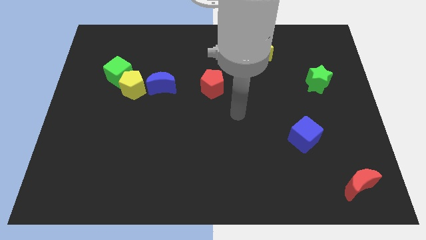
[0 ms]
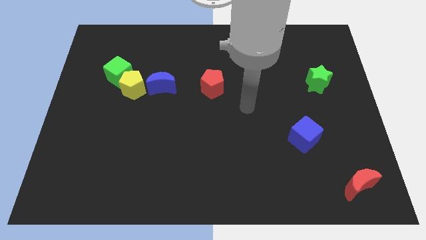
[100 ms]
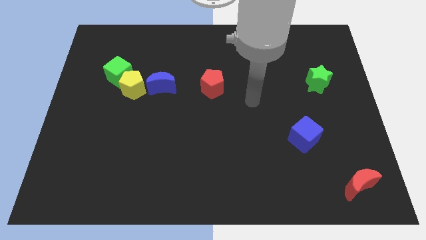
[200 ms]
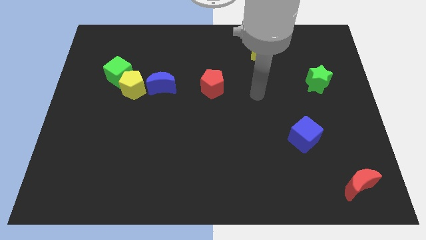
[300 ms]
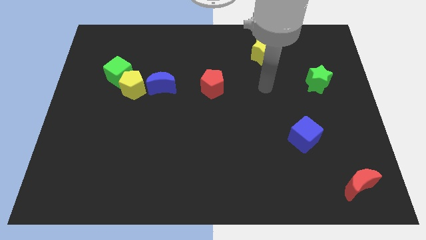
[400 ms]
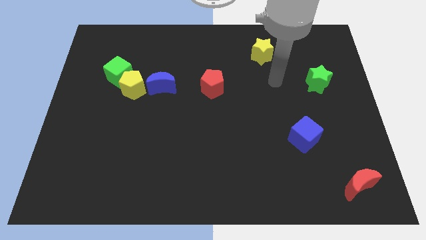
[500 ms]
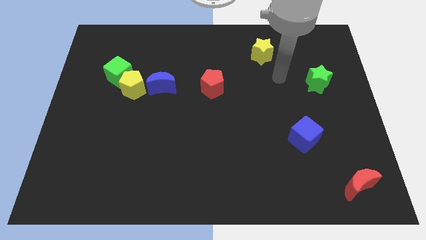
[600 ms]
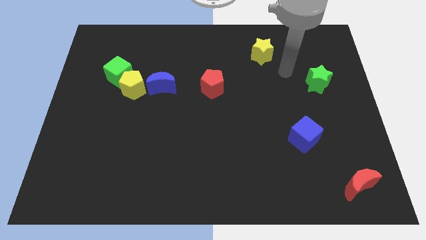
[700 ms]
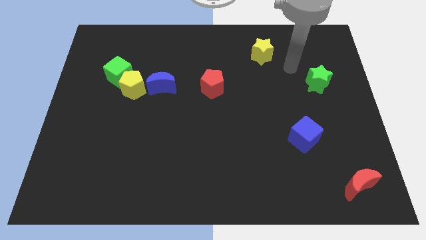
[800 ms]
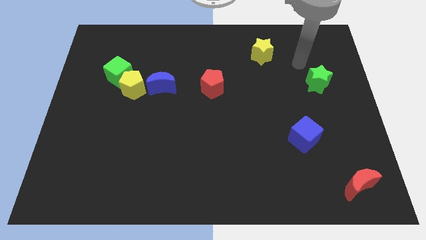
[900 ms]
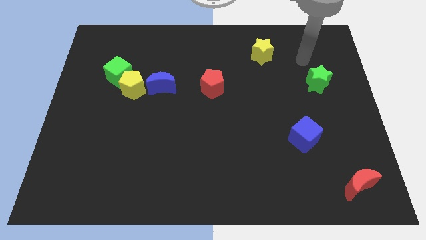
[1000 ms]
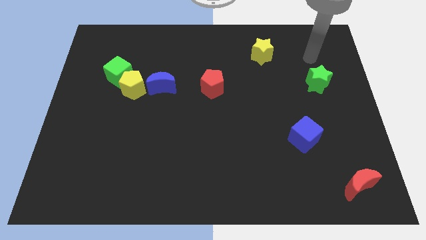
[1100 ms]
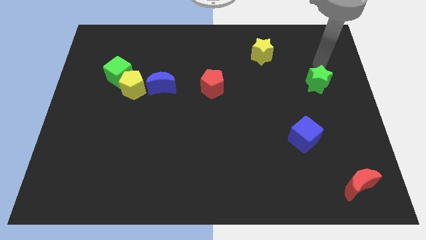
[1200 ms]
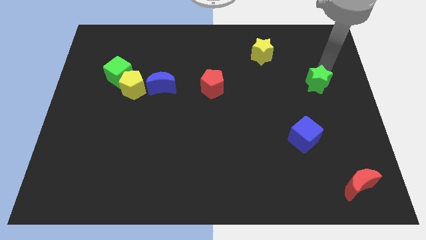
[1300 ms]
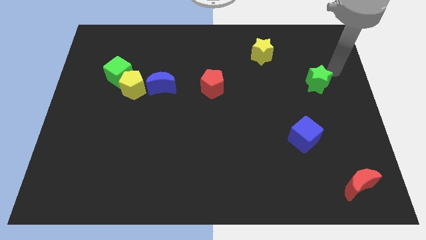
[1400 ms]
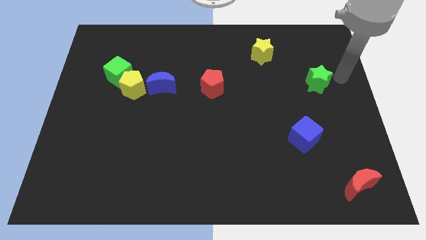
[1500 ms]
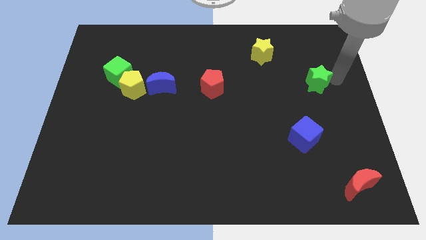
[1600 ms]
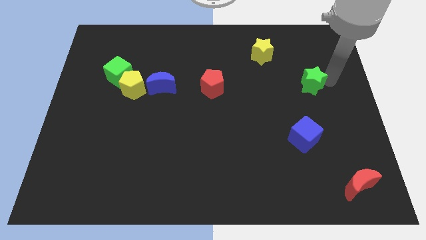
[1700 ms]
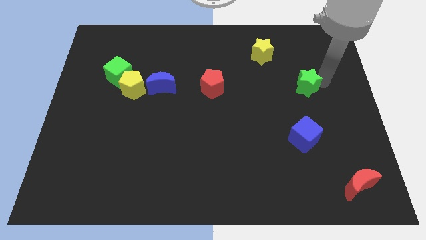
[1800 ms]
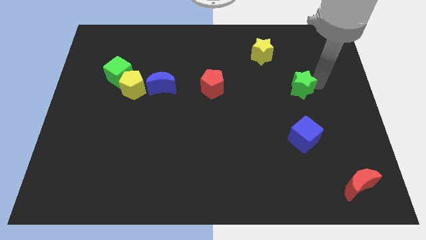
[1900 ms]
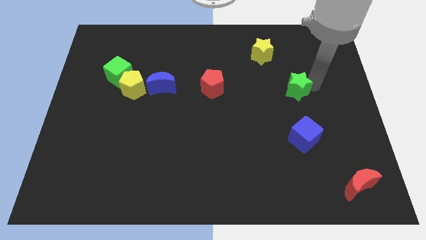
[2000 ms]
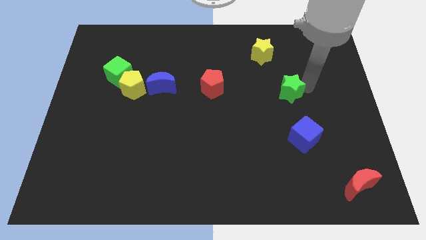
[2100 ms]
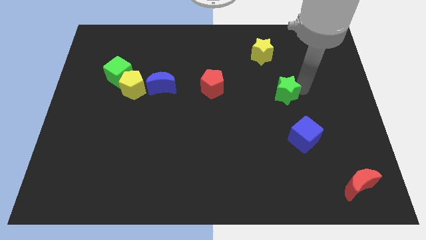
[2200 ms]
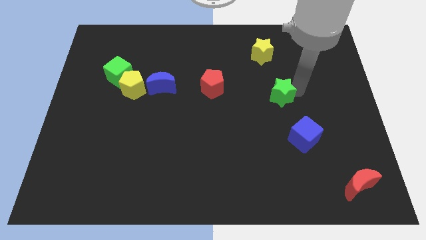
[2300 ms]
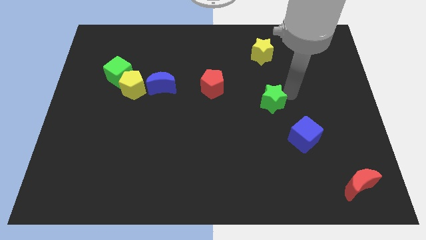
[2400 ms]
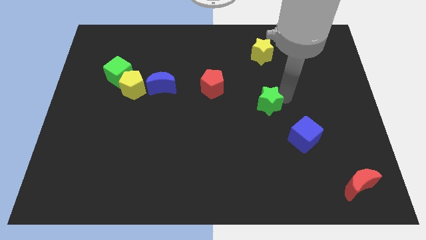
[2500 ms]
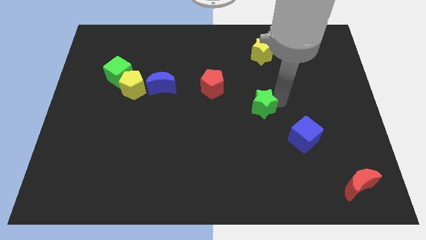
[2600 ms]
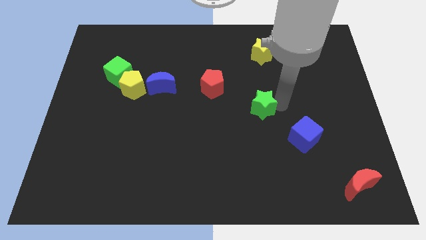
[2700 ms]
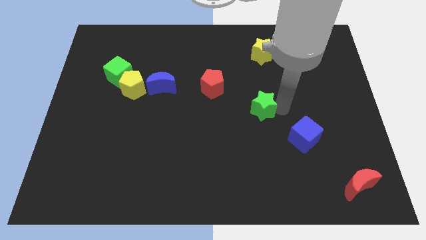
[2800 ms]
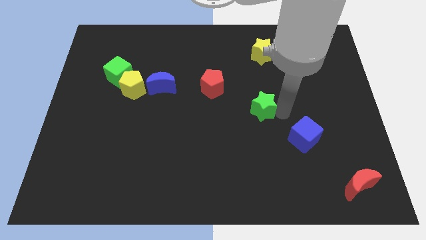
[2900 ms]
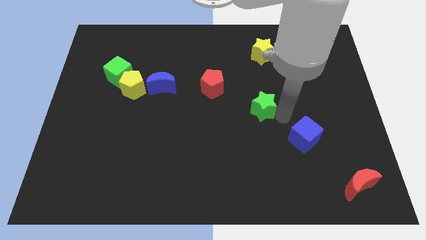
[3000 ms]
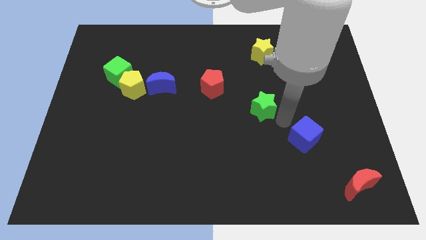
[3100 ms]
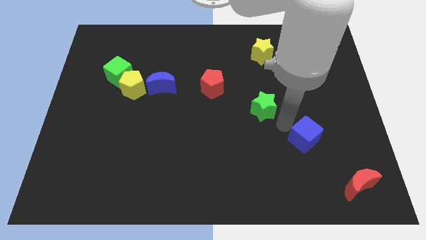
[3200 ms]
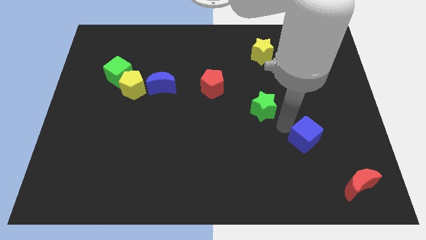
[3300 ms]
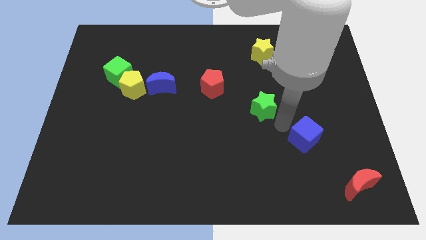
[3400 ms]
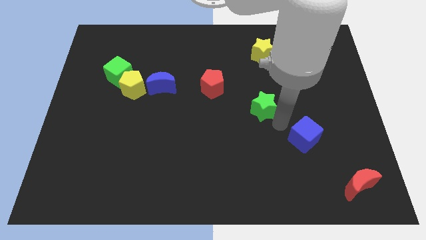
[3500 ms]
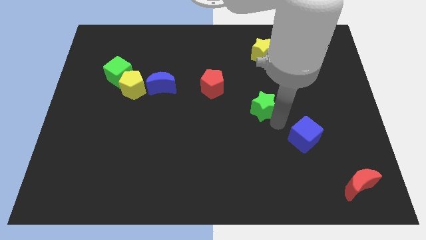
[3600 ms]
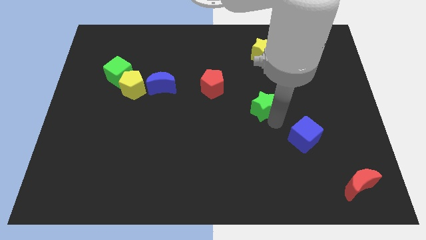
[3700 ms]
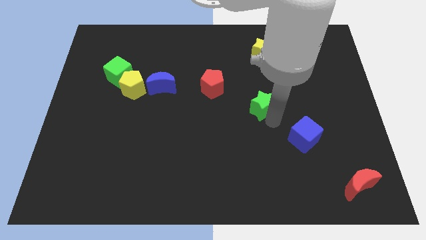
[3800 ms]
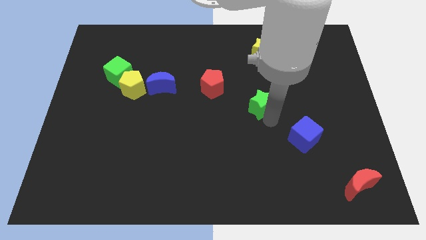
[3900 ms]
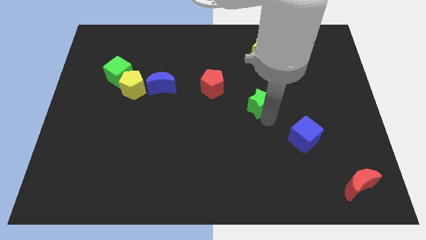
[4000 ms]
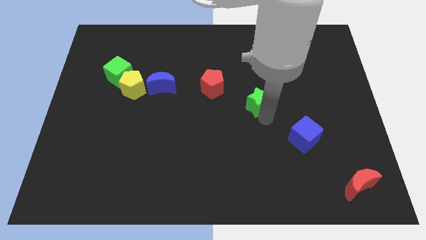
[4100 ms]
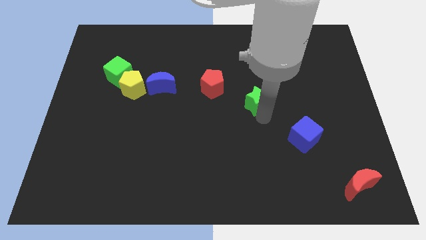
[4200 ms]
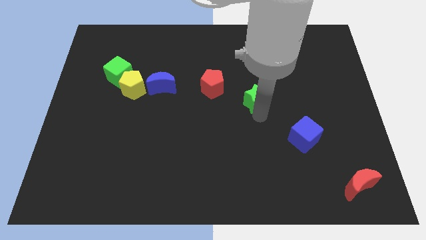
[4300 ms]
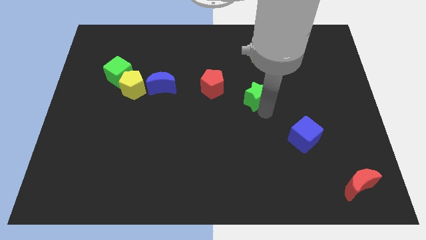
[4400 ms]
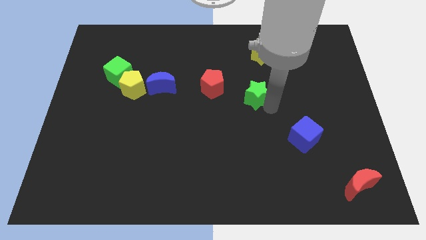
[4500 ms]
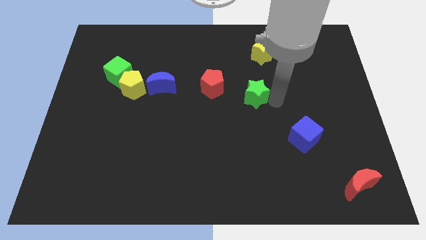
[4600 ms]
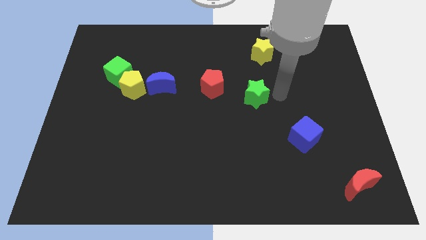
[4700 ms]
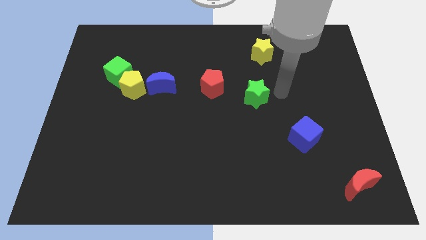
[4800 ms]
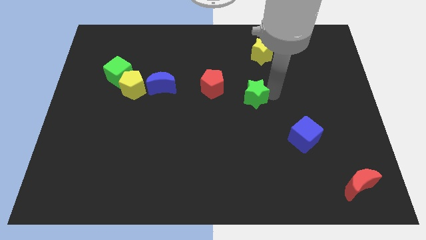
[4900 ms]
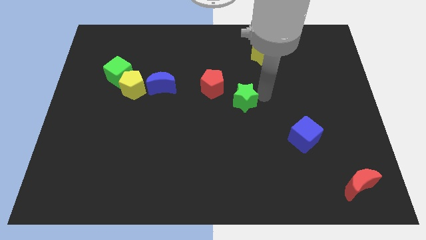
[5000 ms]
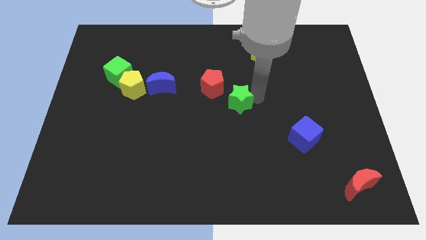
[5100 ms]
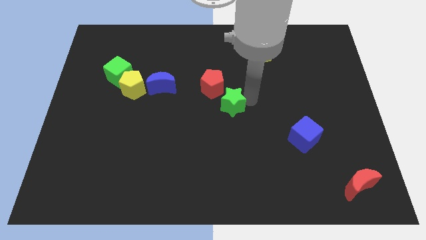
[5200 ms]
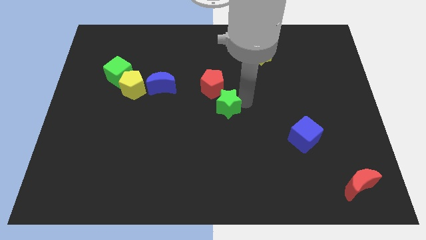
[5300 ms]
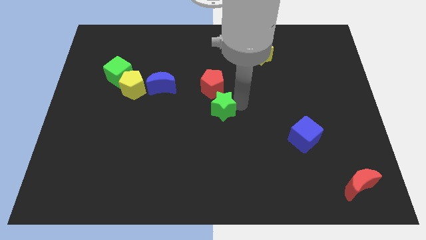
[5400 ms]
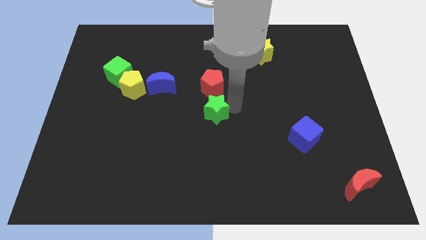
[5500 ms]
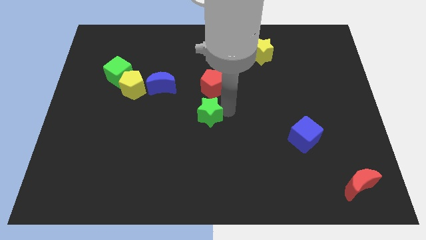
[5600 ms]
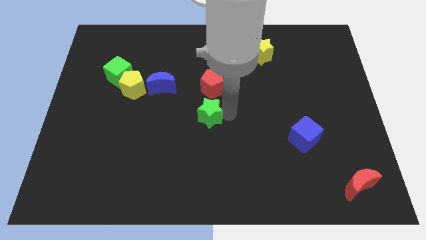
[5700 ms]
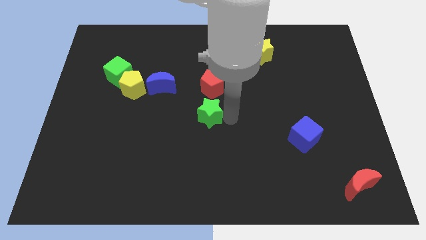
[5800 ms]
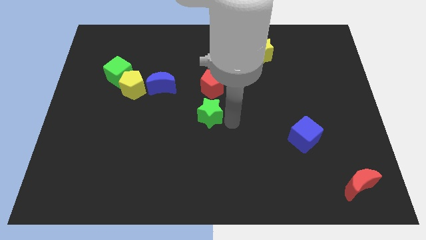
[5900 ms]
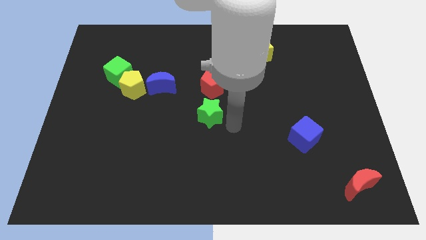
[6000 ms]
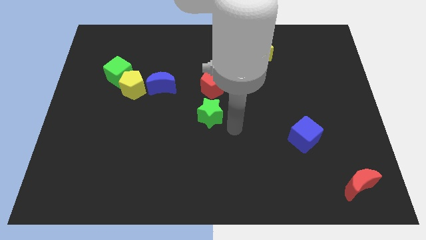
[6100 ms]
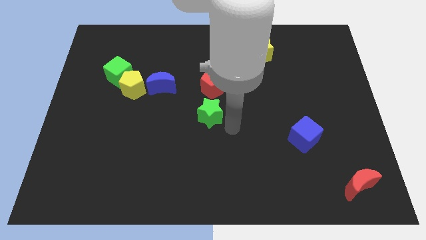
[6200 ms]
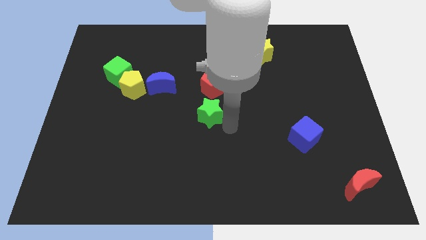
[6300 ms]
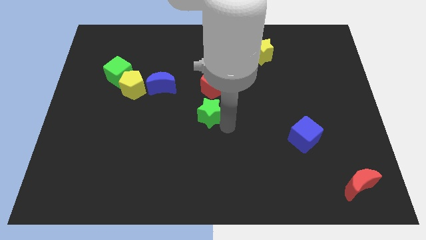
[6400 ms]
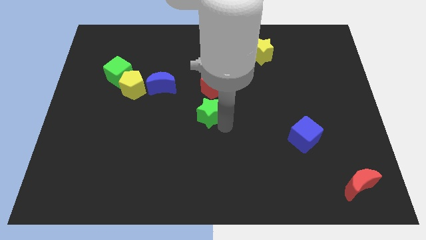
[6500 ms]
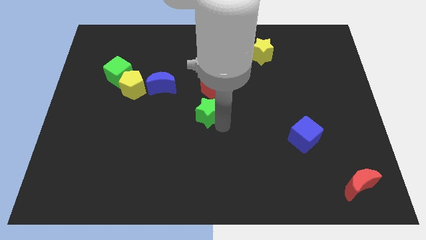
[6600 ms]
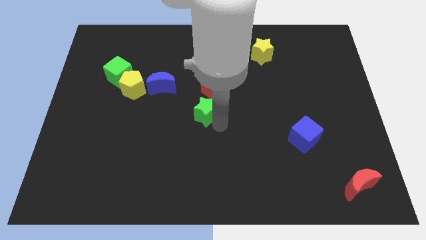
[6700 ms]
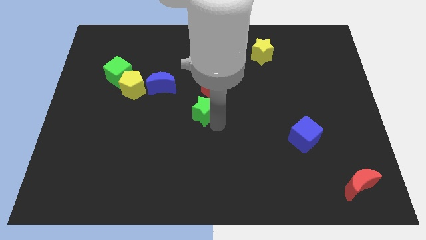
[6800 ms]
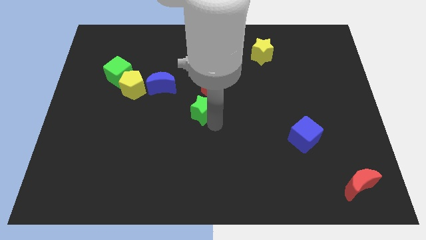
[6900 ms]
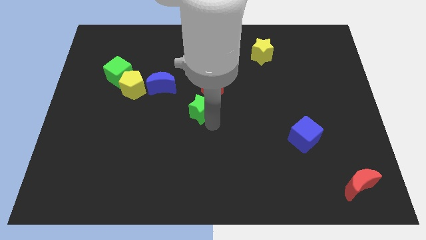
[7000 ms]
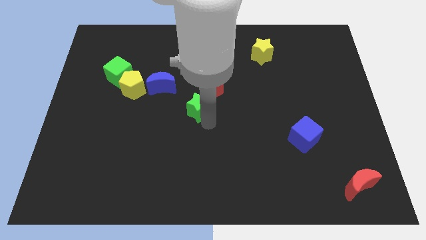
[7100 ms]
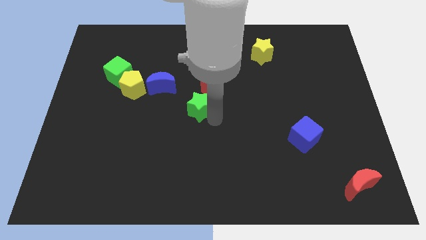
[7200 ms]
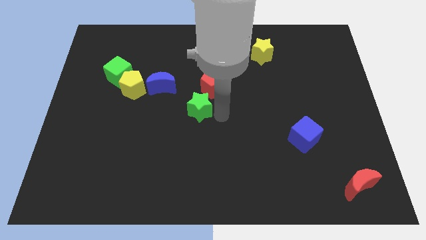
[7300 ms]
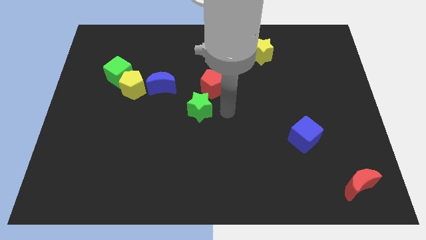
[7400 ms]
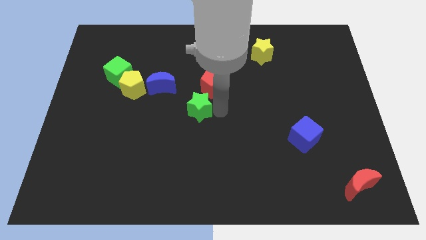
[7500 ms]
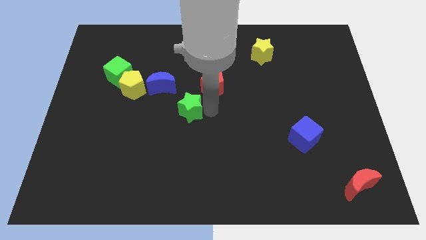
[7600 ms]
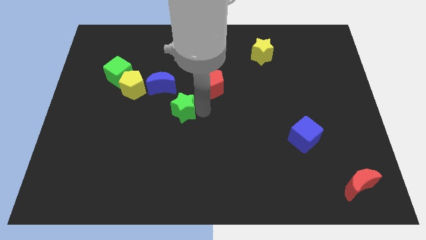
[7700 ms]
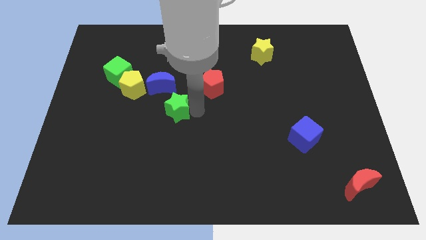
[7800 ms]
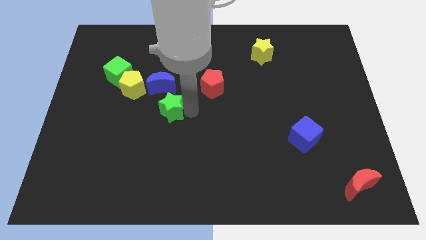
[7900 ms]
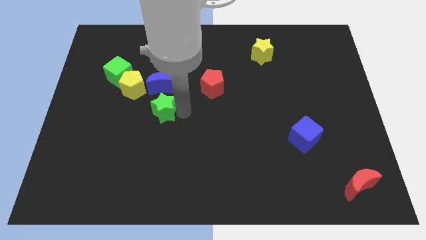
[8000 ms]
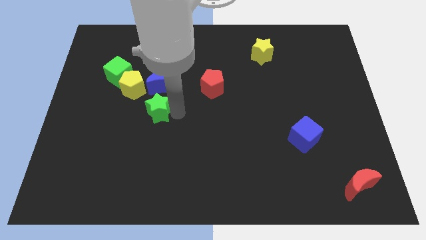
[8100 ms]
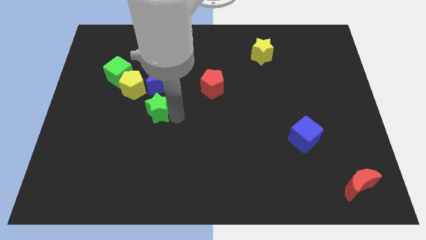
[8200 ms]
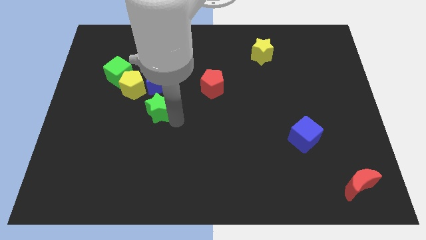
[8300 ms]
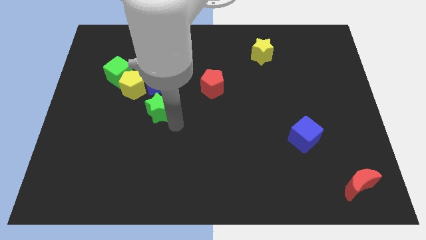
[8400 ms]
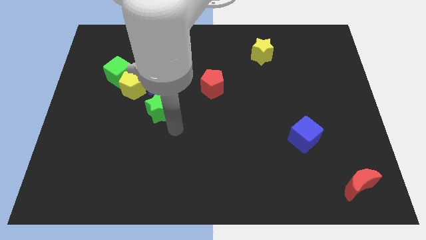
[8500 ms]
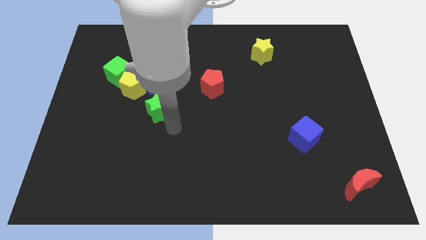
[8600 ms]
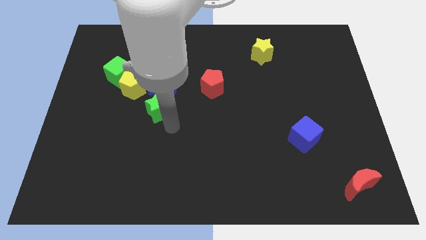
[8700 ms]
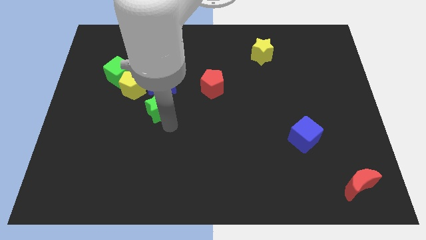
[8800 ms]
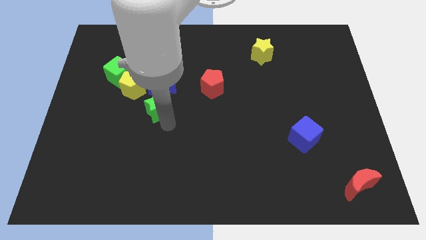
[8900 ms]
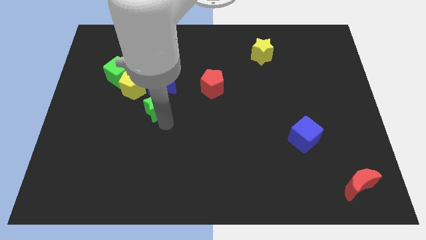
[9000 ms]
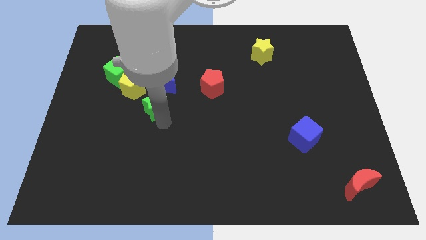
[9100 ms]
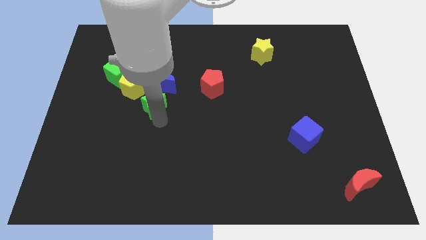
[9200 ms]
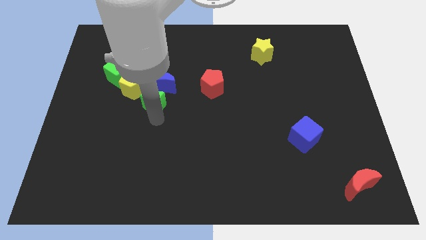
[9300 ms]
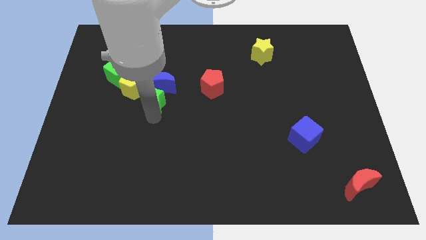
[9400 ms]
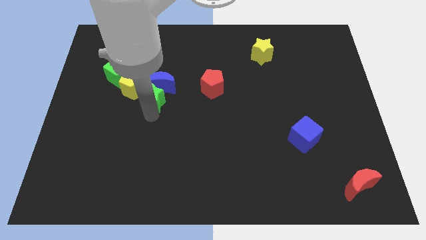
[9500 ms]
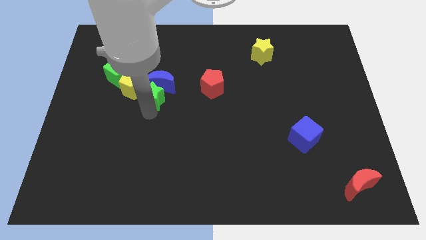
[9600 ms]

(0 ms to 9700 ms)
put the green star towards the yellow pentagon
